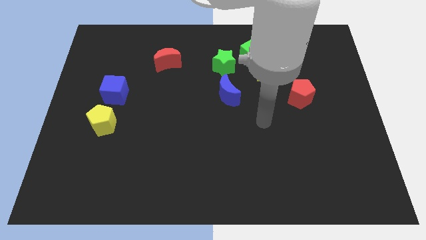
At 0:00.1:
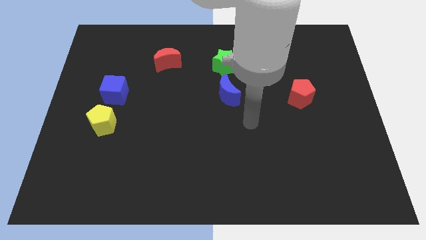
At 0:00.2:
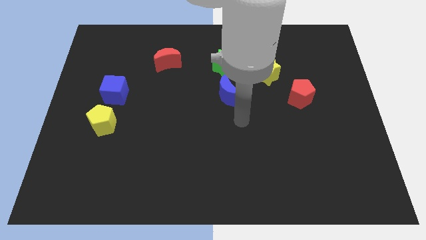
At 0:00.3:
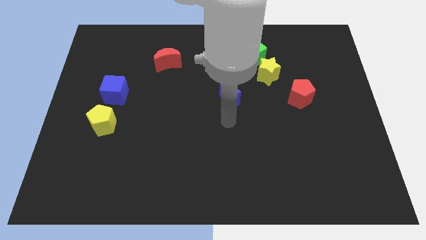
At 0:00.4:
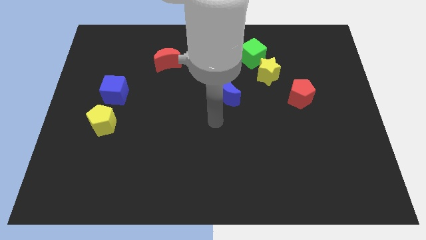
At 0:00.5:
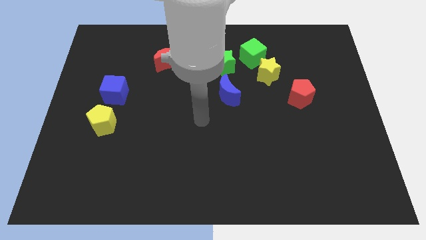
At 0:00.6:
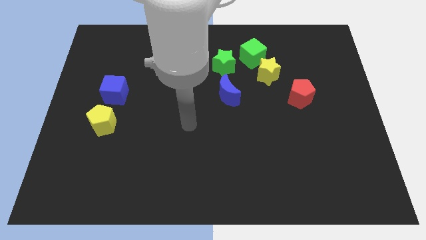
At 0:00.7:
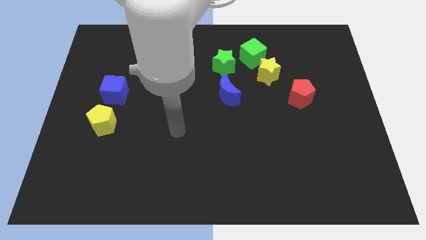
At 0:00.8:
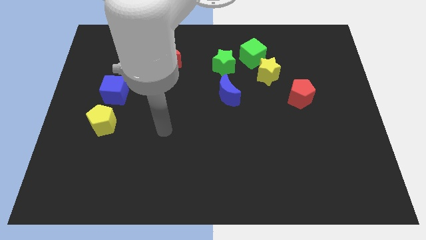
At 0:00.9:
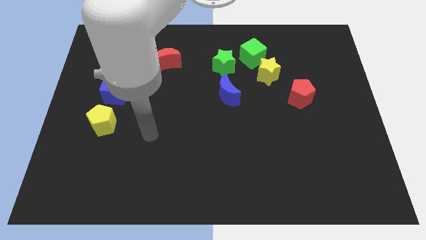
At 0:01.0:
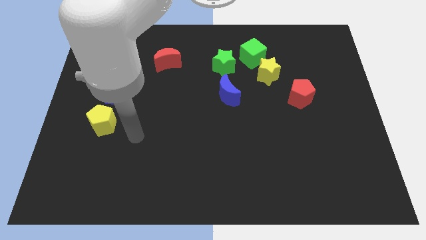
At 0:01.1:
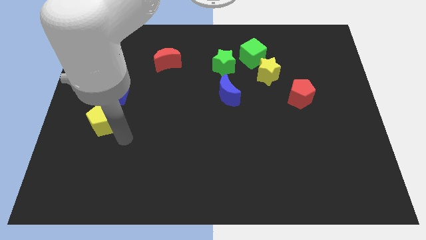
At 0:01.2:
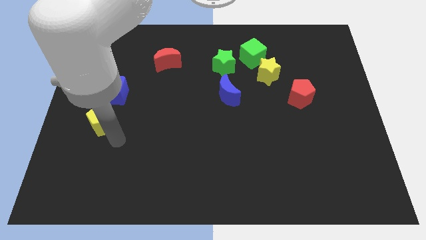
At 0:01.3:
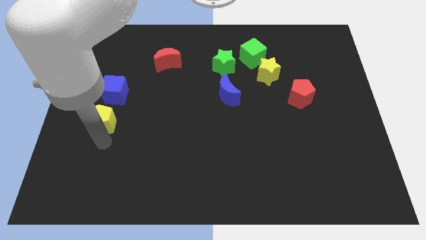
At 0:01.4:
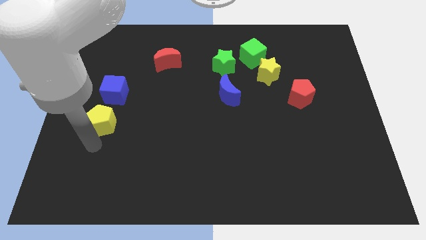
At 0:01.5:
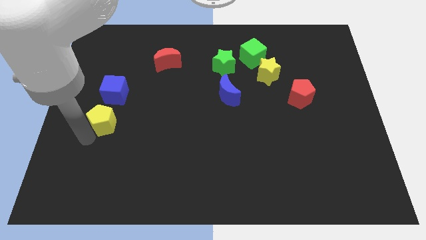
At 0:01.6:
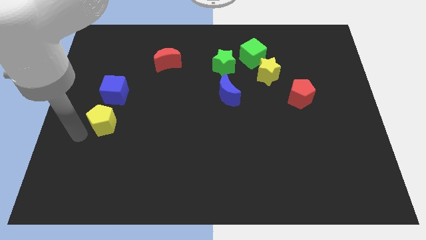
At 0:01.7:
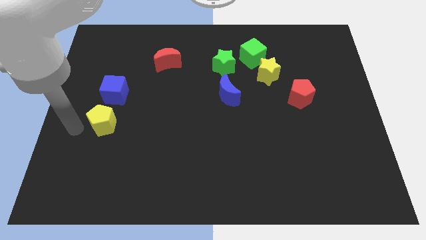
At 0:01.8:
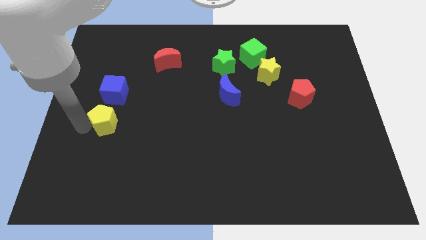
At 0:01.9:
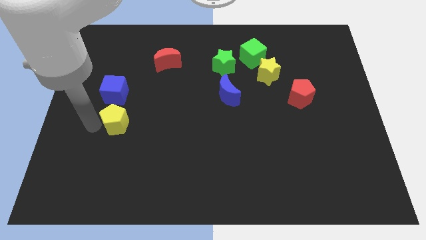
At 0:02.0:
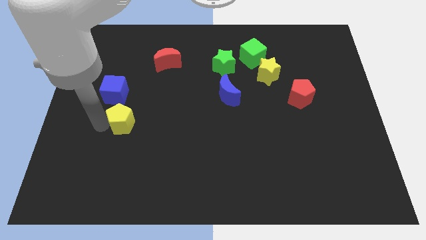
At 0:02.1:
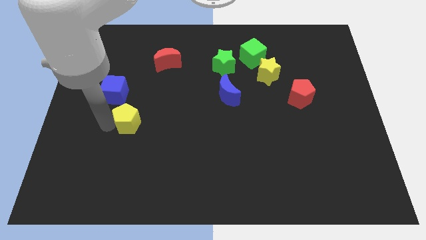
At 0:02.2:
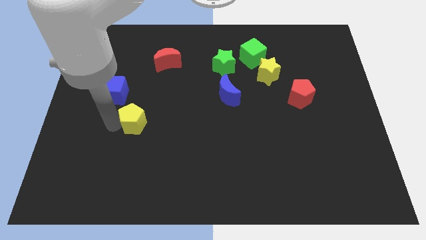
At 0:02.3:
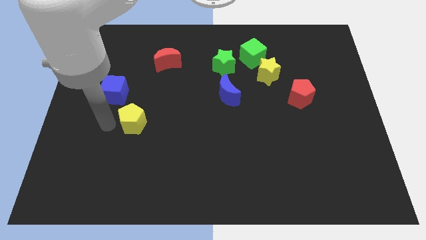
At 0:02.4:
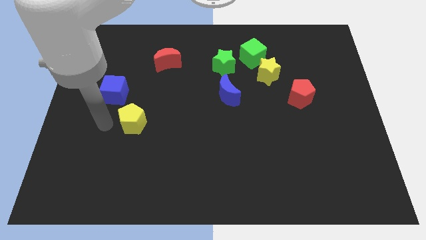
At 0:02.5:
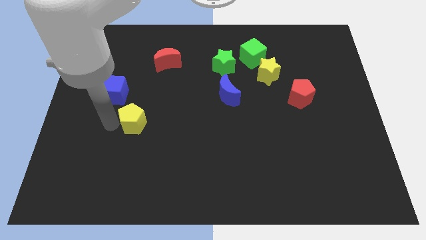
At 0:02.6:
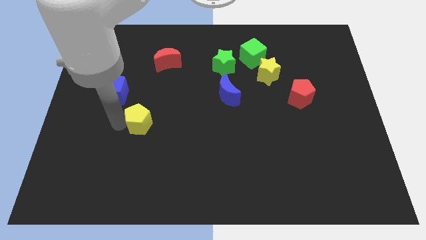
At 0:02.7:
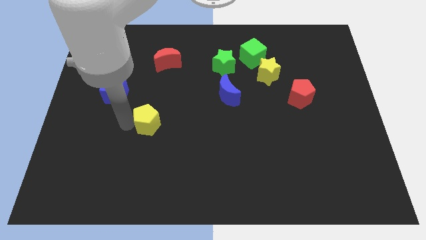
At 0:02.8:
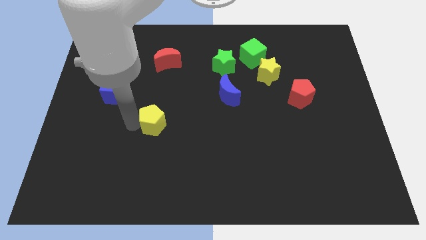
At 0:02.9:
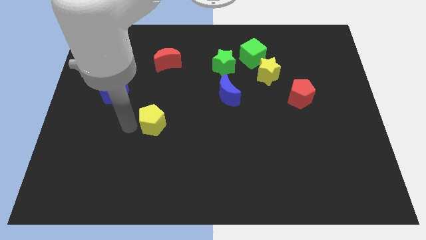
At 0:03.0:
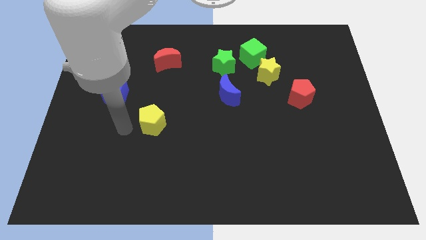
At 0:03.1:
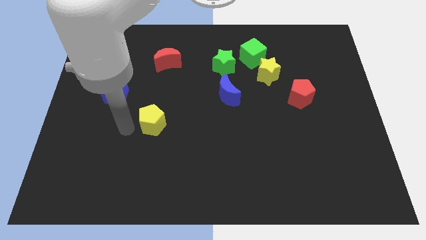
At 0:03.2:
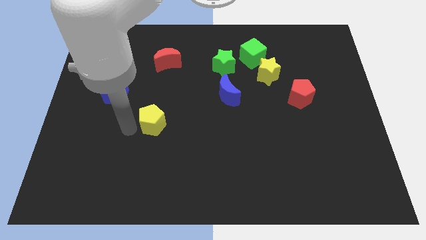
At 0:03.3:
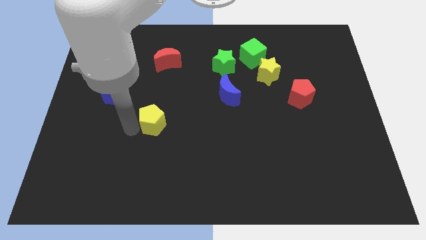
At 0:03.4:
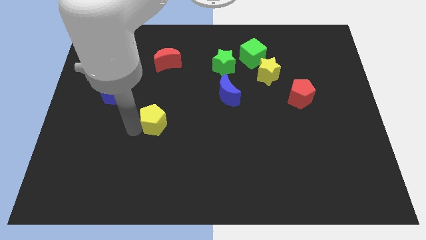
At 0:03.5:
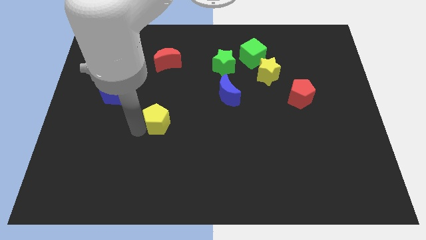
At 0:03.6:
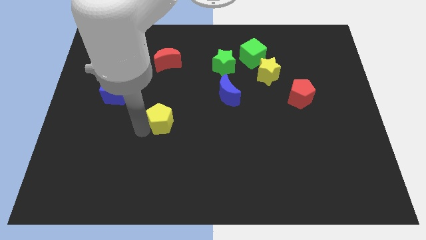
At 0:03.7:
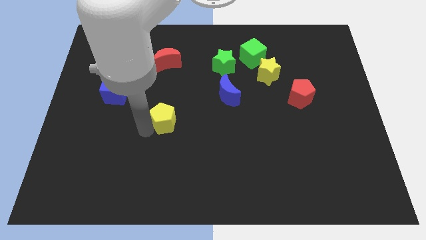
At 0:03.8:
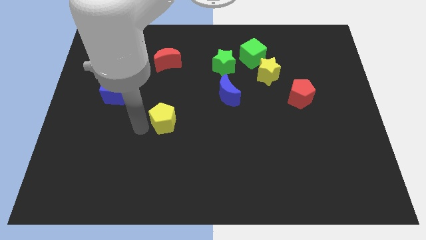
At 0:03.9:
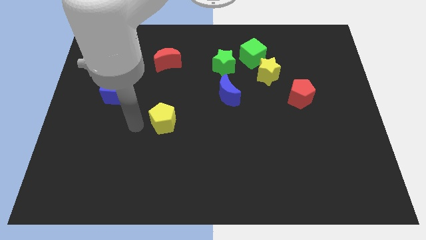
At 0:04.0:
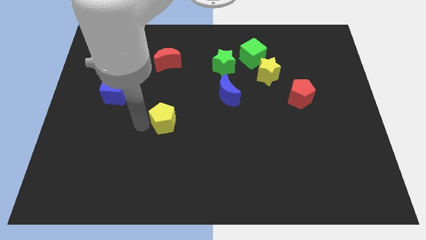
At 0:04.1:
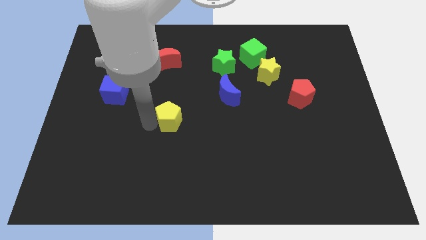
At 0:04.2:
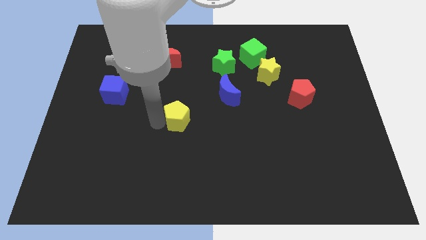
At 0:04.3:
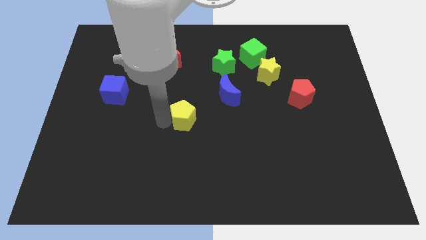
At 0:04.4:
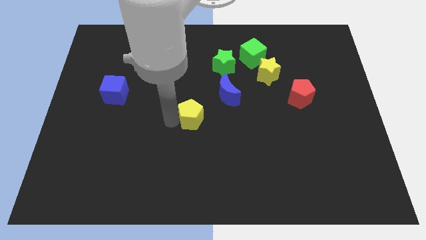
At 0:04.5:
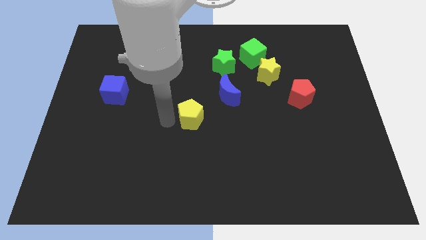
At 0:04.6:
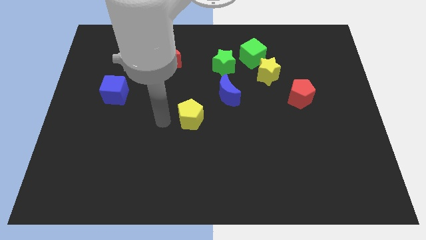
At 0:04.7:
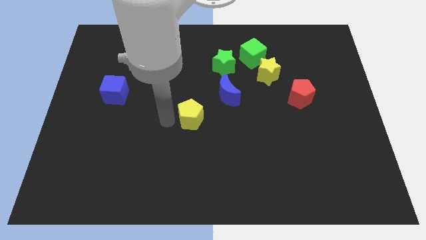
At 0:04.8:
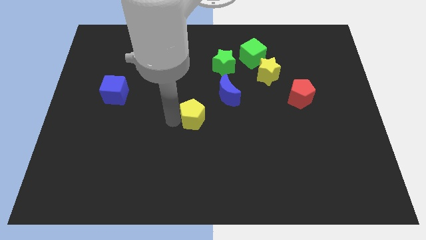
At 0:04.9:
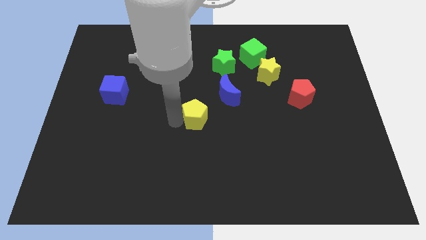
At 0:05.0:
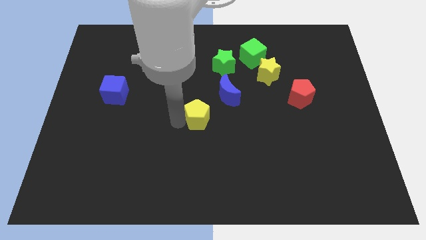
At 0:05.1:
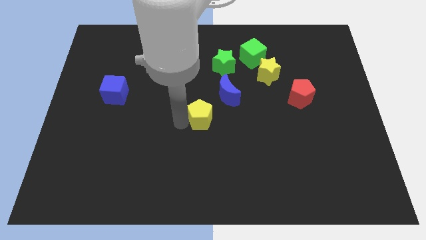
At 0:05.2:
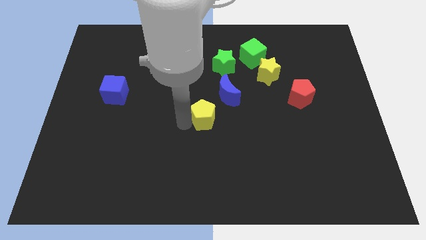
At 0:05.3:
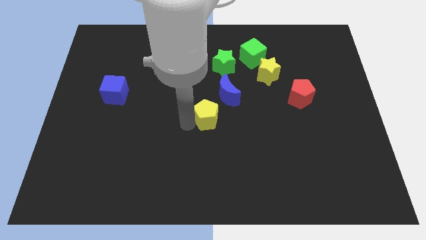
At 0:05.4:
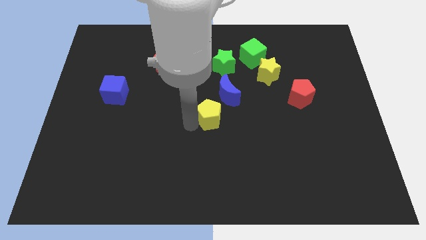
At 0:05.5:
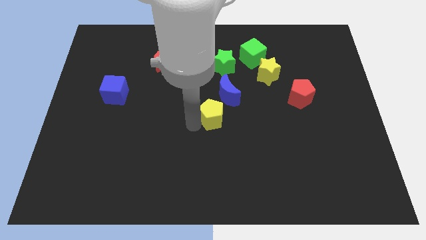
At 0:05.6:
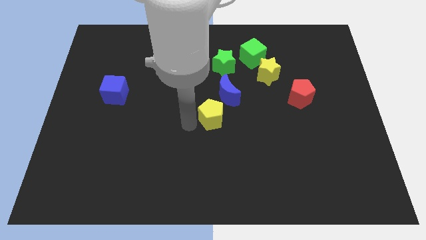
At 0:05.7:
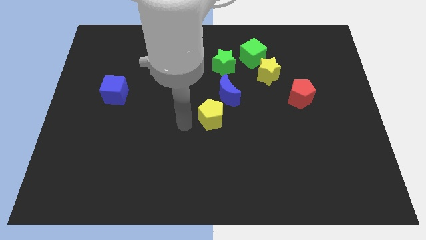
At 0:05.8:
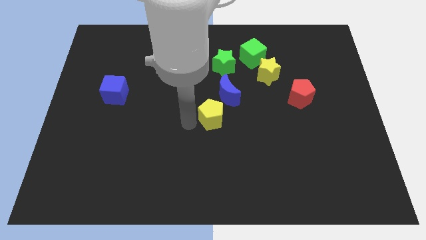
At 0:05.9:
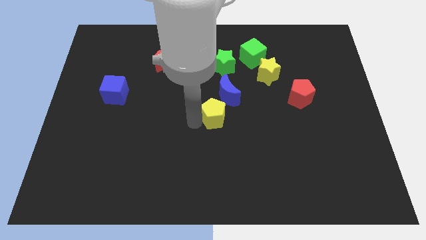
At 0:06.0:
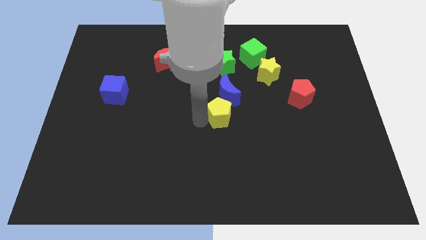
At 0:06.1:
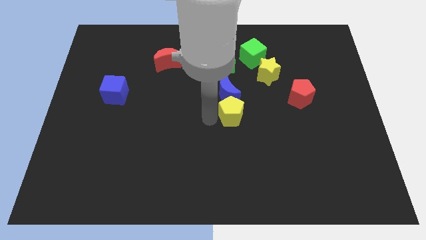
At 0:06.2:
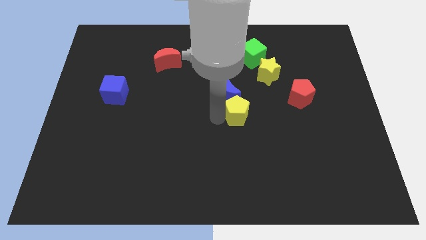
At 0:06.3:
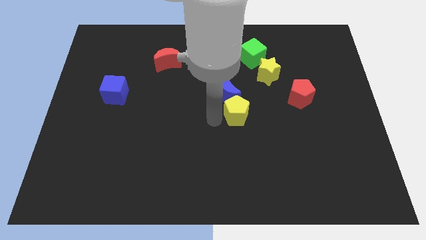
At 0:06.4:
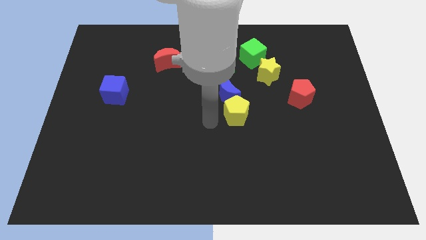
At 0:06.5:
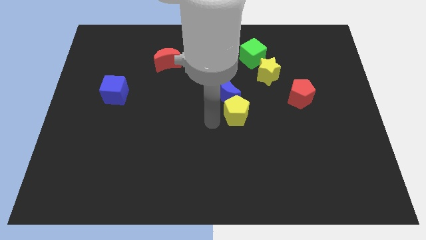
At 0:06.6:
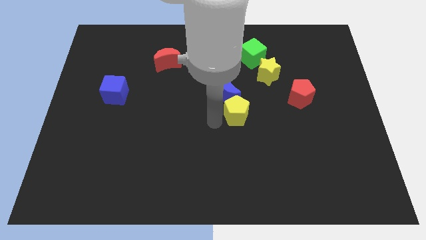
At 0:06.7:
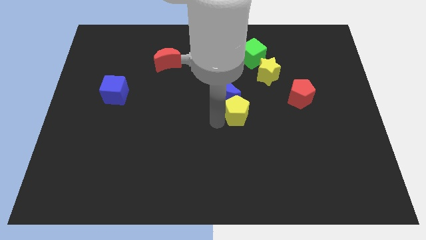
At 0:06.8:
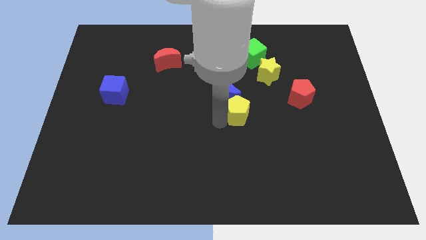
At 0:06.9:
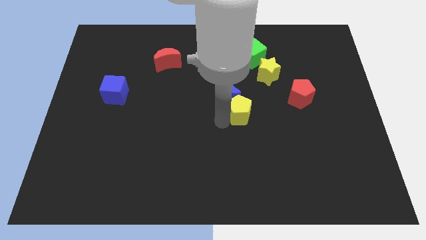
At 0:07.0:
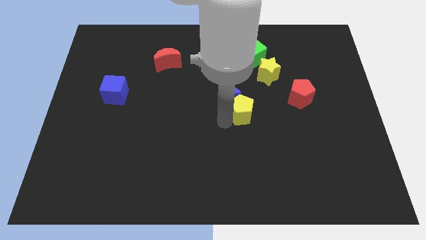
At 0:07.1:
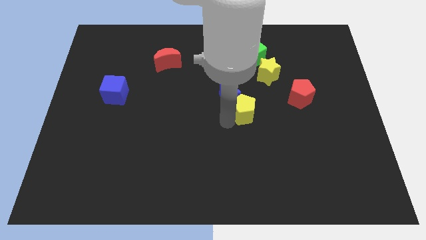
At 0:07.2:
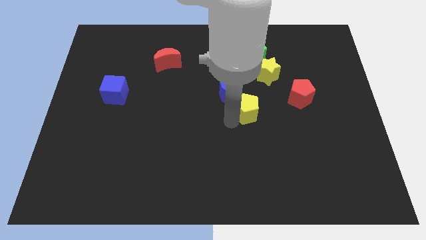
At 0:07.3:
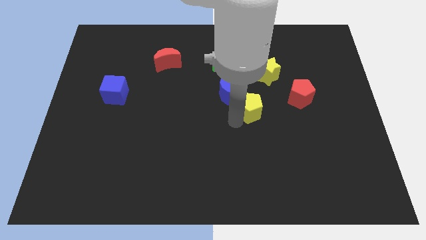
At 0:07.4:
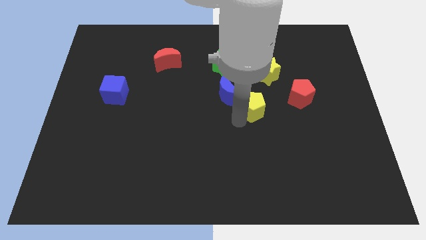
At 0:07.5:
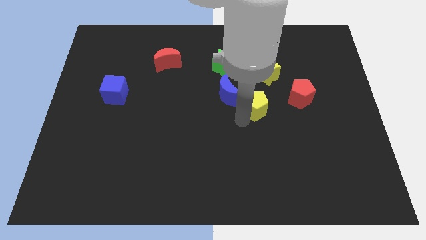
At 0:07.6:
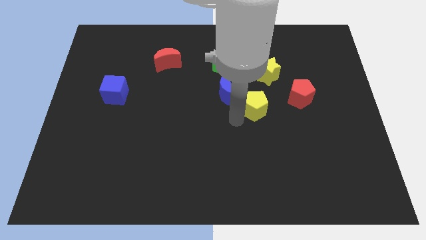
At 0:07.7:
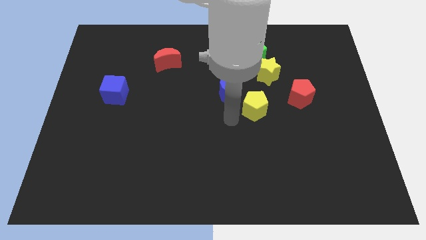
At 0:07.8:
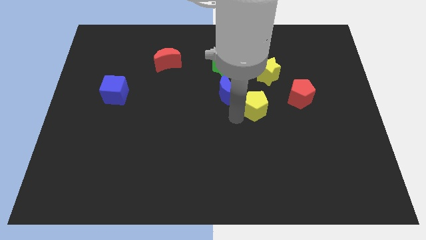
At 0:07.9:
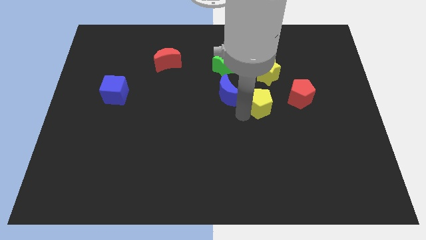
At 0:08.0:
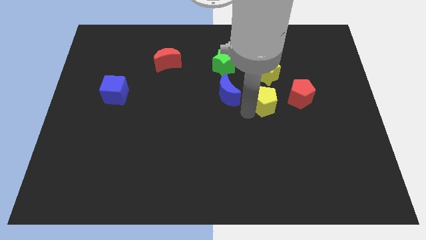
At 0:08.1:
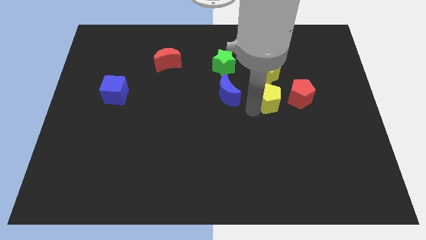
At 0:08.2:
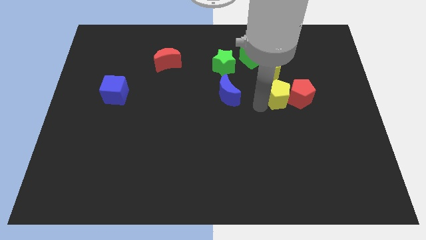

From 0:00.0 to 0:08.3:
move the yellow pentagon next to the red pentagon
